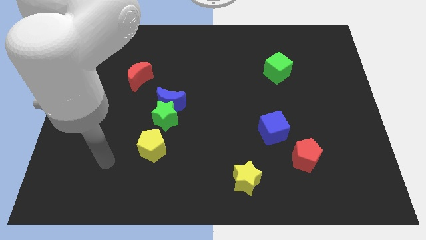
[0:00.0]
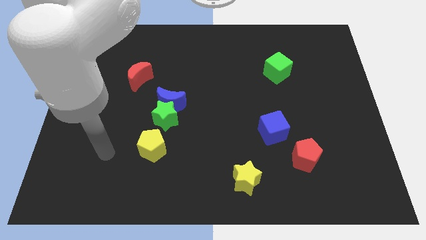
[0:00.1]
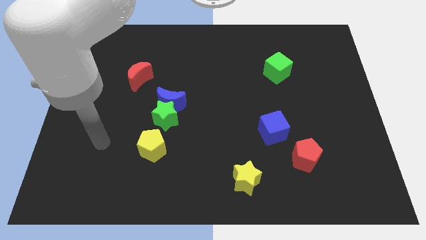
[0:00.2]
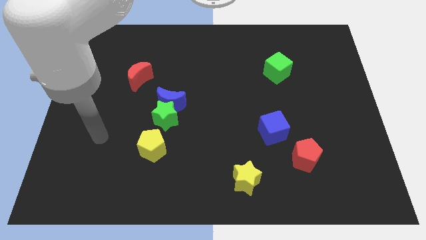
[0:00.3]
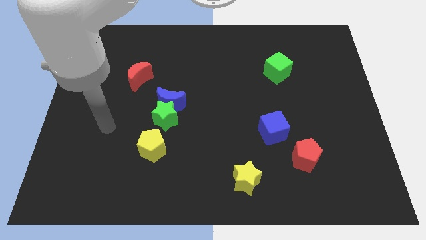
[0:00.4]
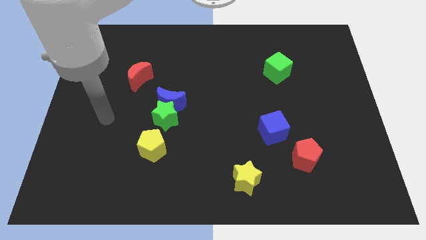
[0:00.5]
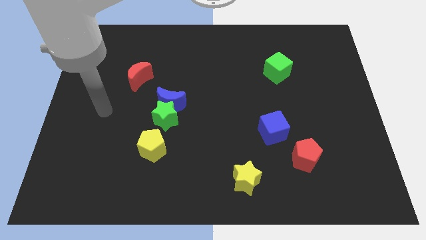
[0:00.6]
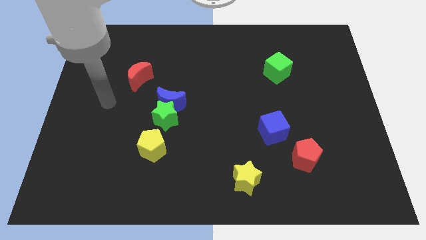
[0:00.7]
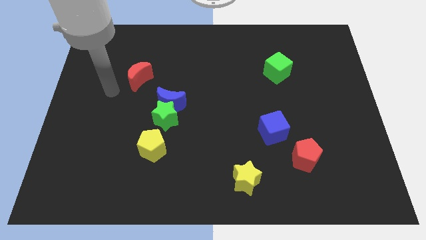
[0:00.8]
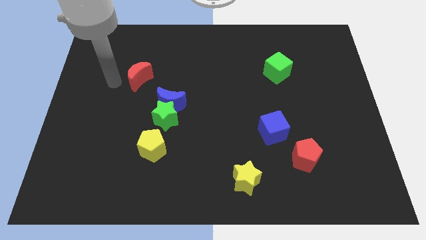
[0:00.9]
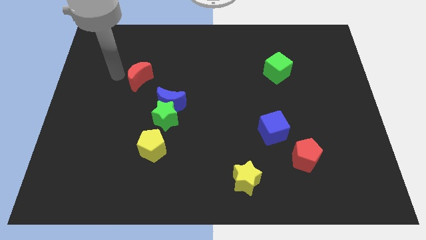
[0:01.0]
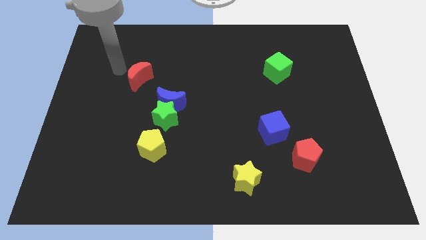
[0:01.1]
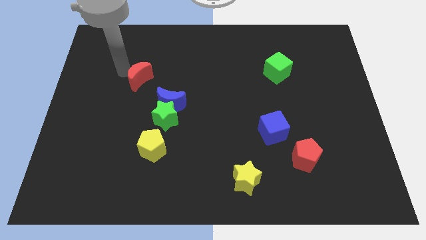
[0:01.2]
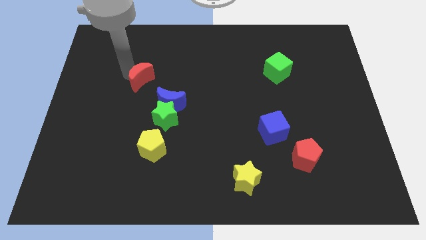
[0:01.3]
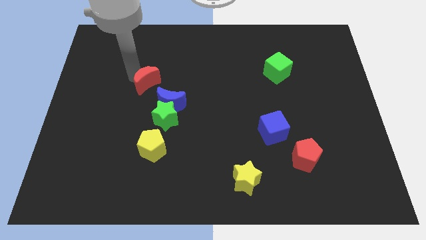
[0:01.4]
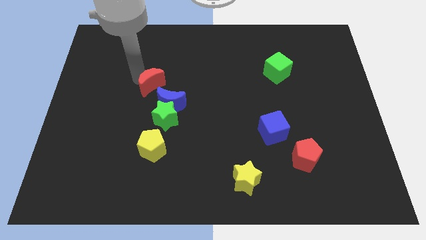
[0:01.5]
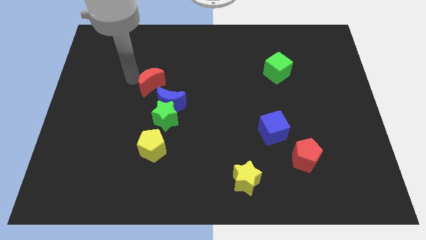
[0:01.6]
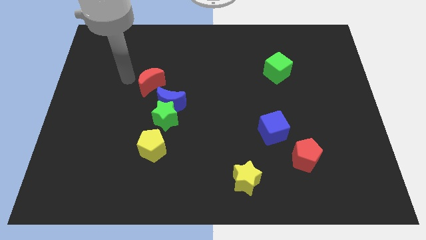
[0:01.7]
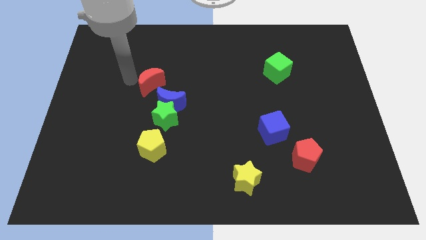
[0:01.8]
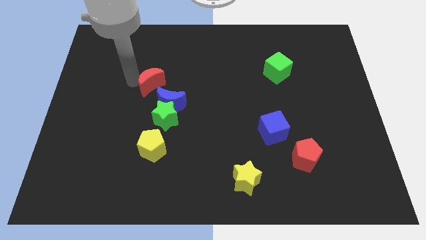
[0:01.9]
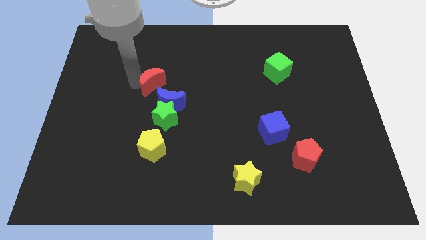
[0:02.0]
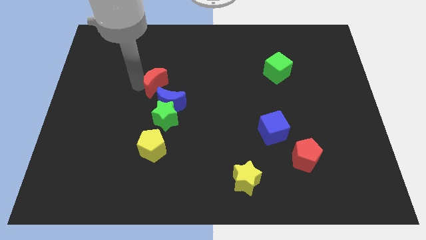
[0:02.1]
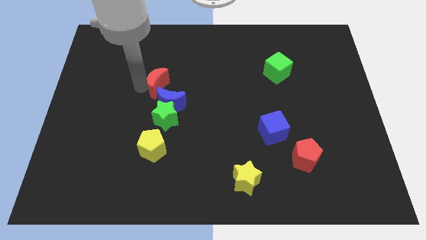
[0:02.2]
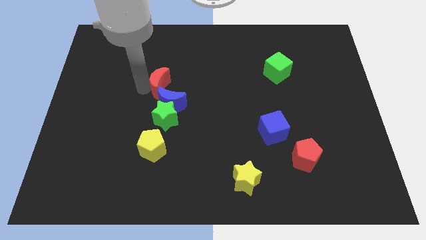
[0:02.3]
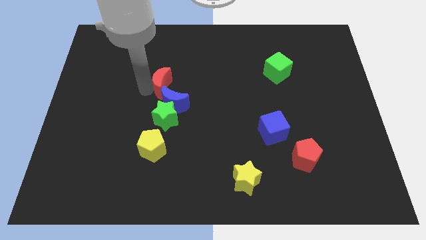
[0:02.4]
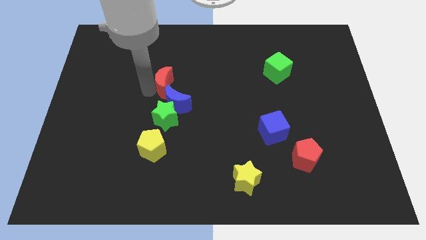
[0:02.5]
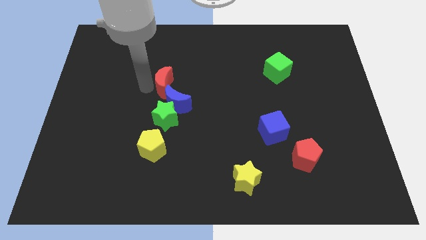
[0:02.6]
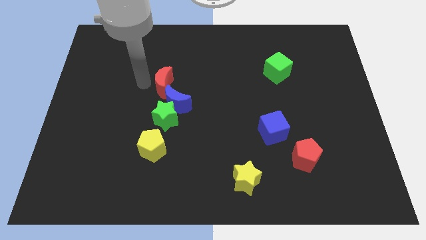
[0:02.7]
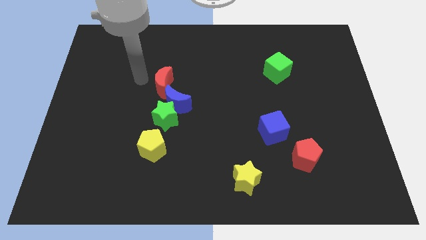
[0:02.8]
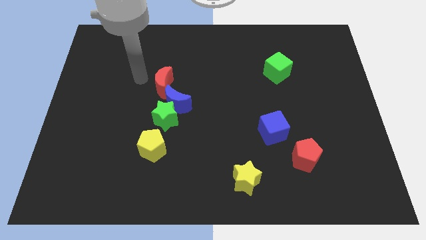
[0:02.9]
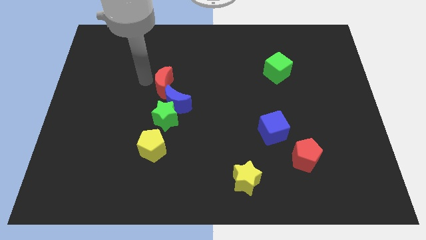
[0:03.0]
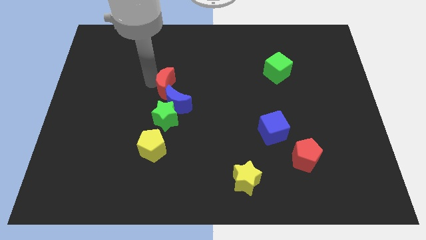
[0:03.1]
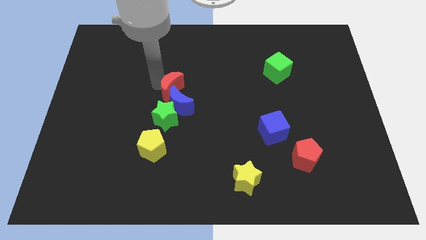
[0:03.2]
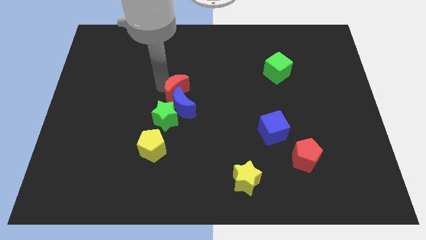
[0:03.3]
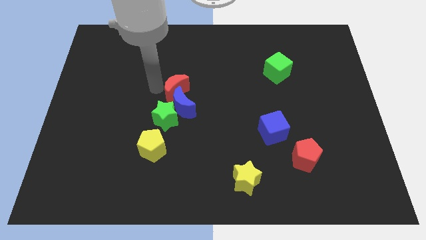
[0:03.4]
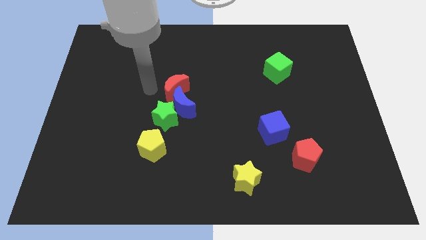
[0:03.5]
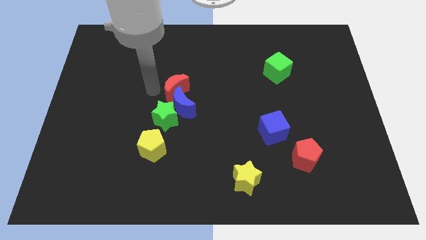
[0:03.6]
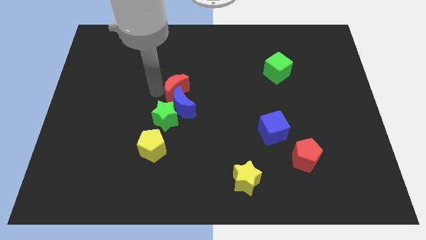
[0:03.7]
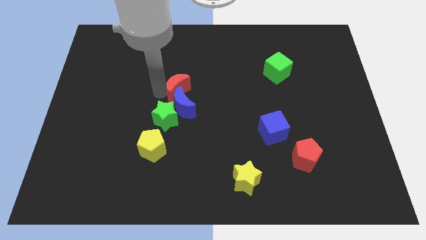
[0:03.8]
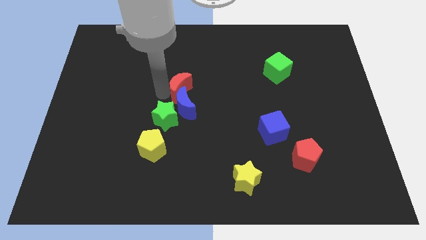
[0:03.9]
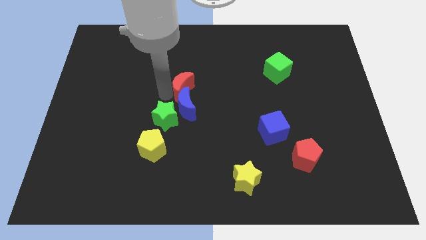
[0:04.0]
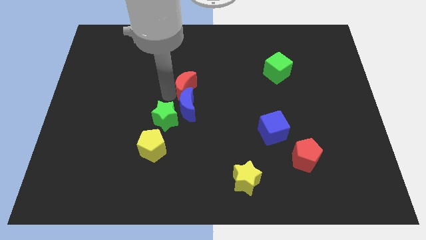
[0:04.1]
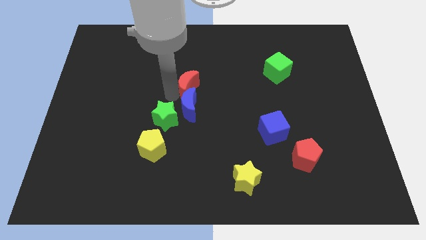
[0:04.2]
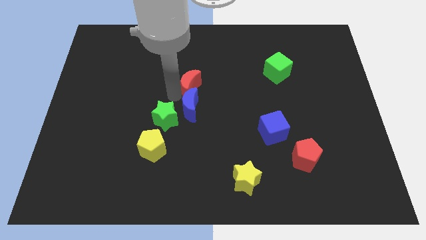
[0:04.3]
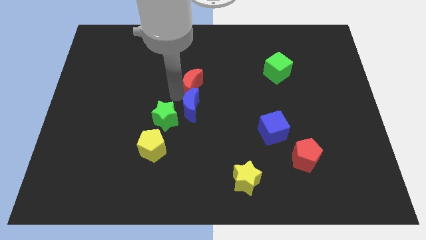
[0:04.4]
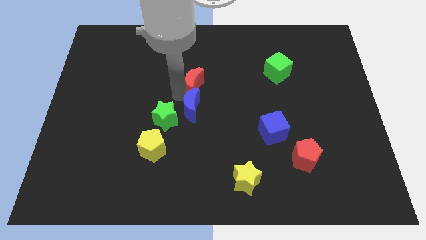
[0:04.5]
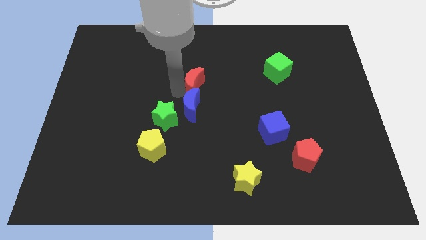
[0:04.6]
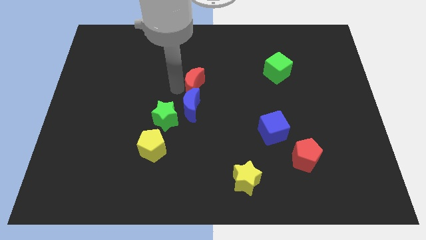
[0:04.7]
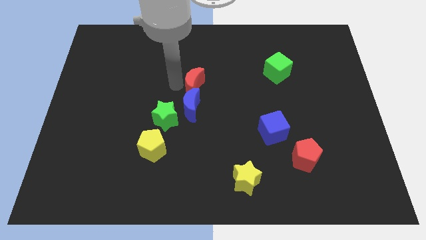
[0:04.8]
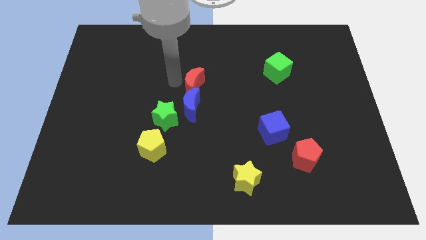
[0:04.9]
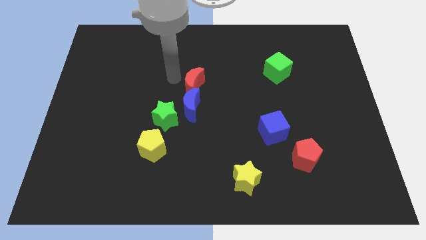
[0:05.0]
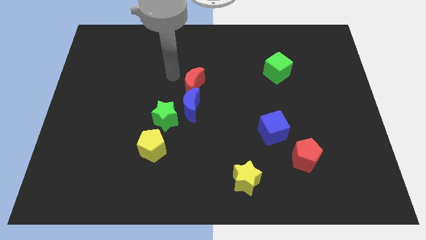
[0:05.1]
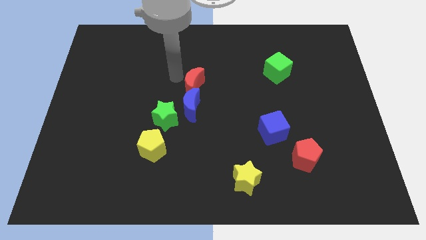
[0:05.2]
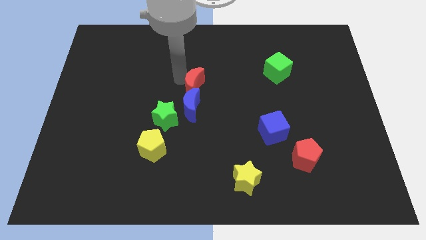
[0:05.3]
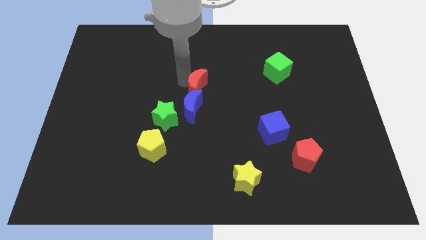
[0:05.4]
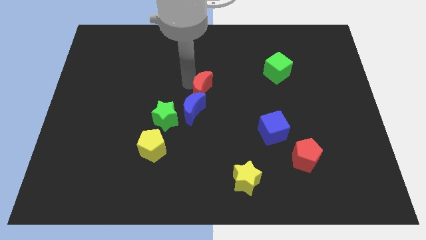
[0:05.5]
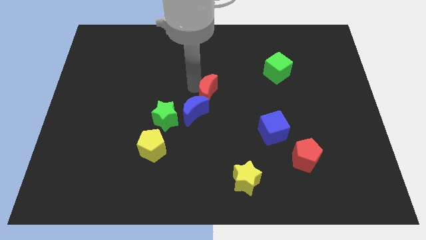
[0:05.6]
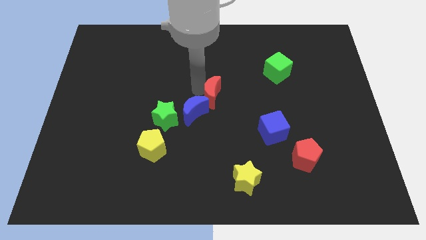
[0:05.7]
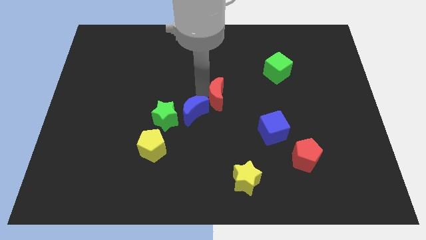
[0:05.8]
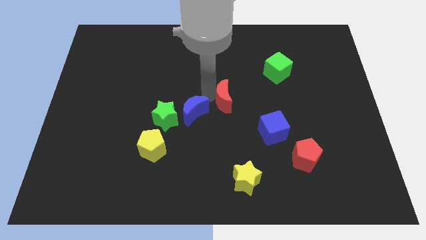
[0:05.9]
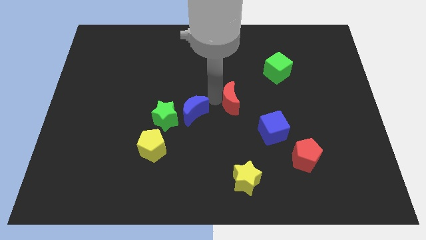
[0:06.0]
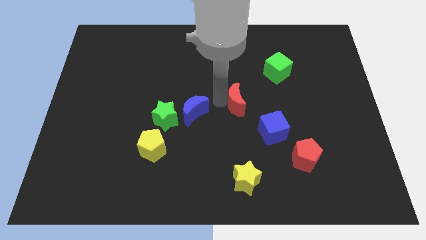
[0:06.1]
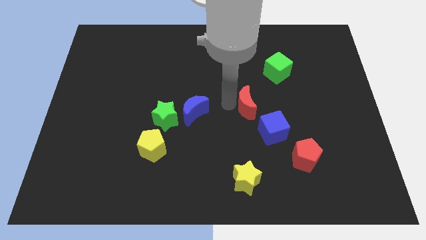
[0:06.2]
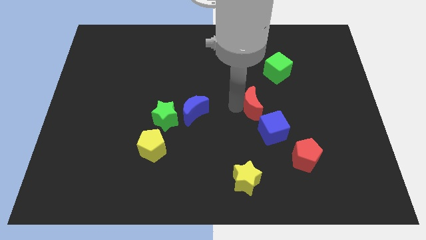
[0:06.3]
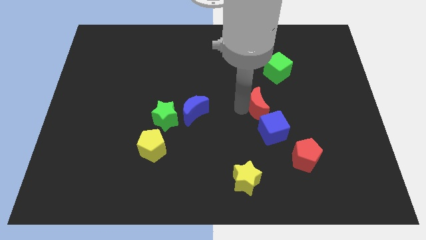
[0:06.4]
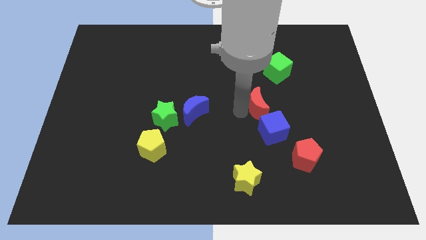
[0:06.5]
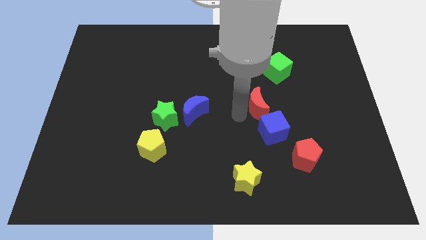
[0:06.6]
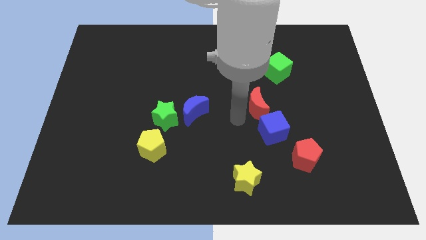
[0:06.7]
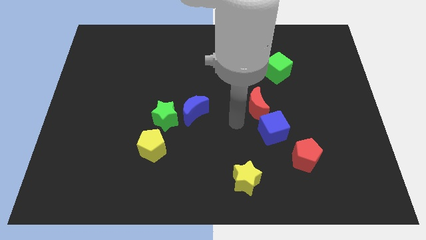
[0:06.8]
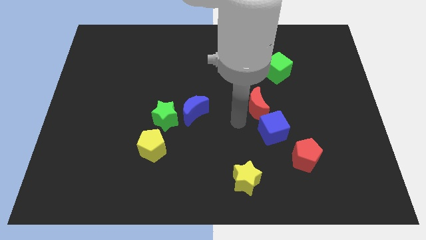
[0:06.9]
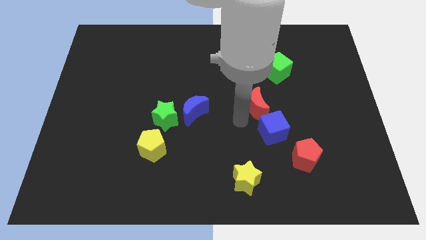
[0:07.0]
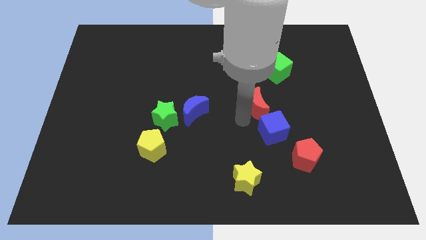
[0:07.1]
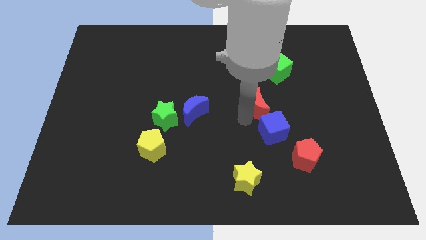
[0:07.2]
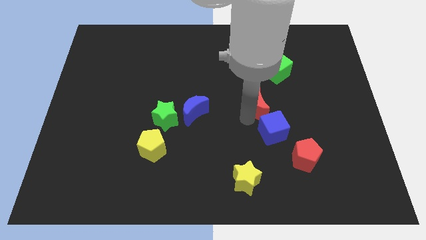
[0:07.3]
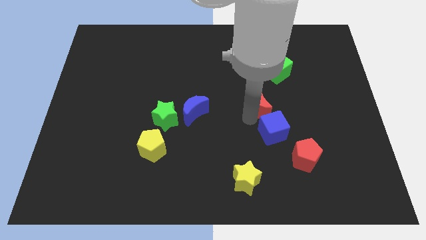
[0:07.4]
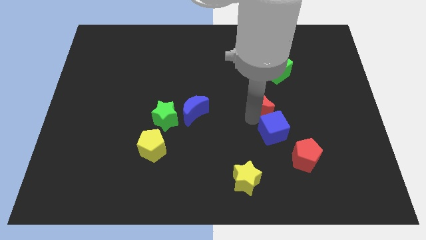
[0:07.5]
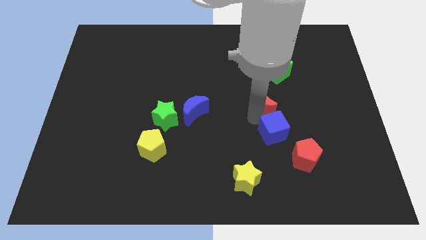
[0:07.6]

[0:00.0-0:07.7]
put the red moon to the bottom side of the green cube
